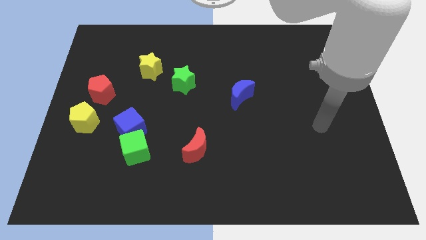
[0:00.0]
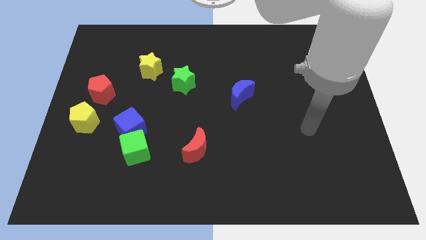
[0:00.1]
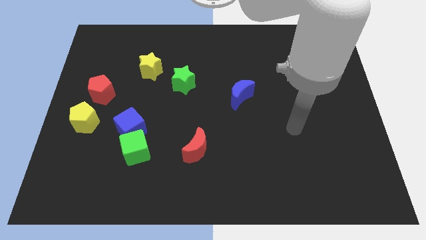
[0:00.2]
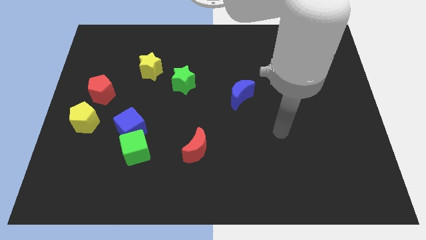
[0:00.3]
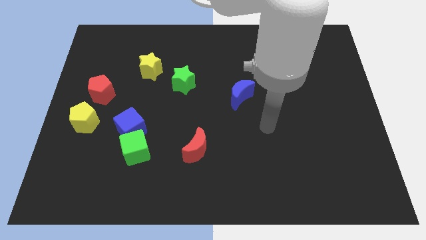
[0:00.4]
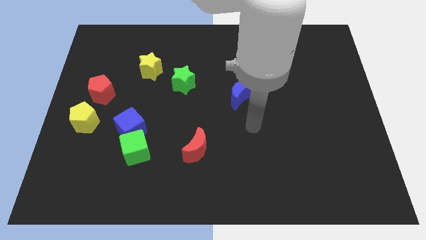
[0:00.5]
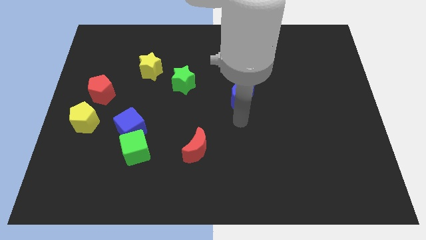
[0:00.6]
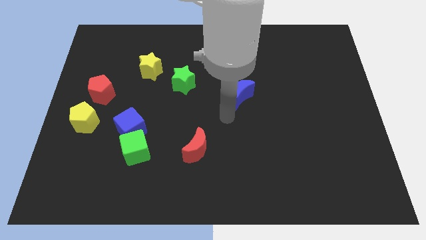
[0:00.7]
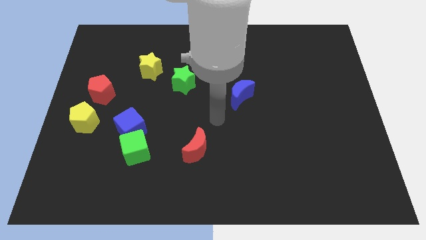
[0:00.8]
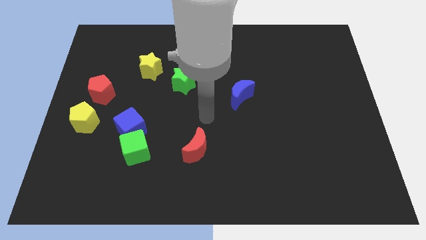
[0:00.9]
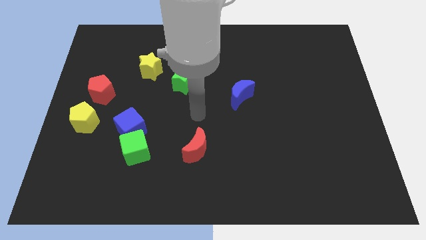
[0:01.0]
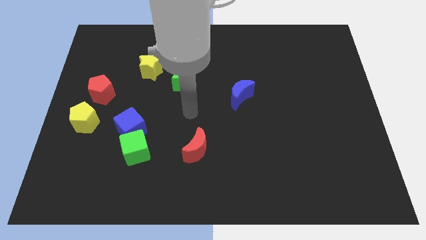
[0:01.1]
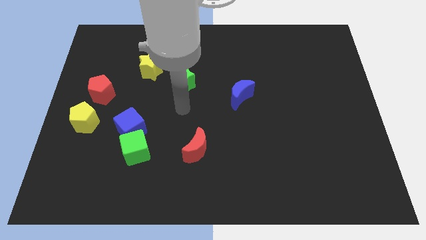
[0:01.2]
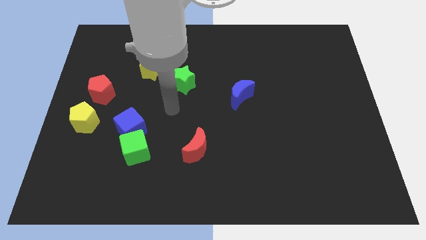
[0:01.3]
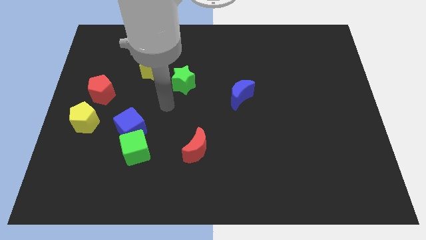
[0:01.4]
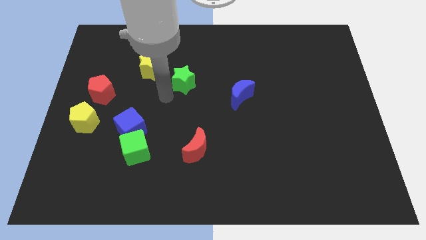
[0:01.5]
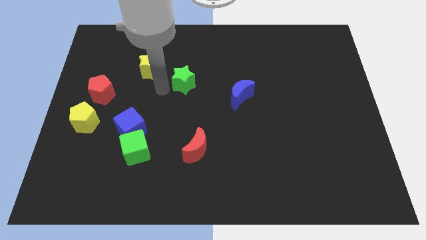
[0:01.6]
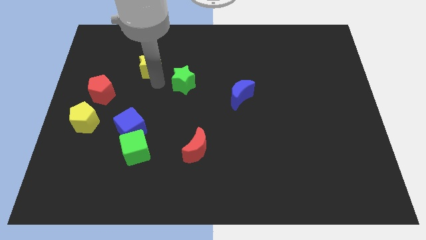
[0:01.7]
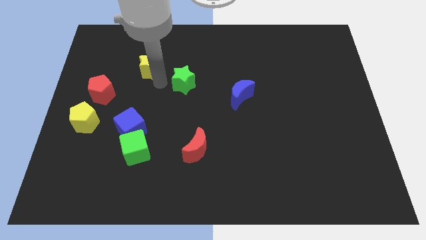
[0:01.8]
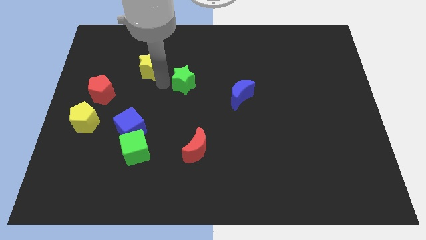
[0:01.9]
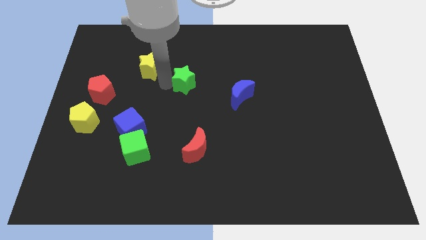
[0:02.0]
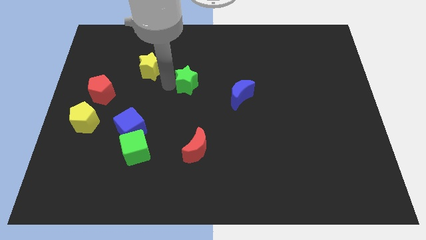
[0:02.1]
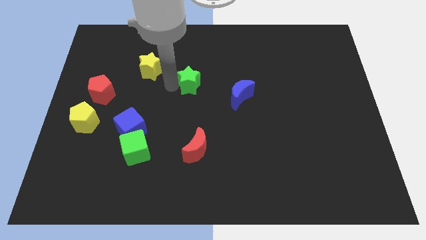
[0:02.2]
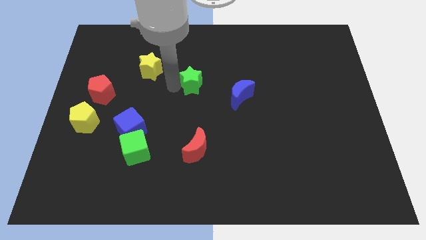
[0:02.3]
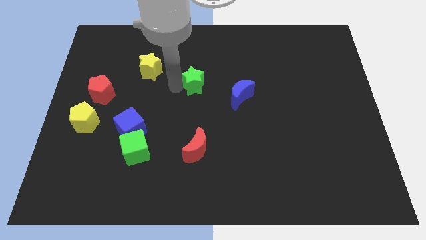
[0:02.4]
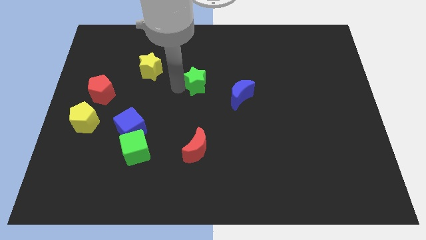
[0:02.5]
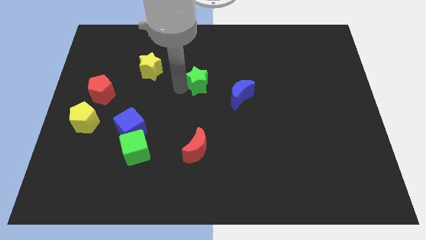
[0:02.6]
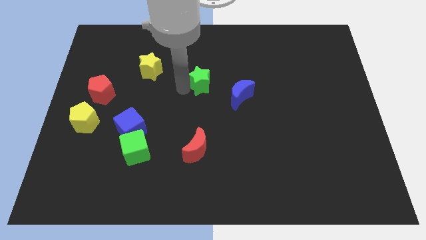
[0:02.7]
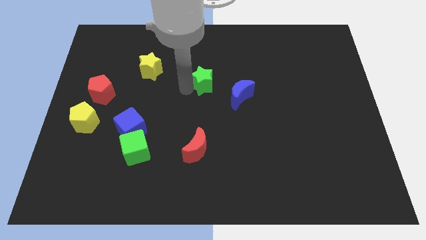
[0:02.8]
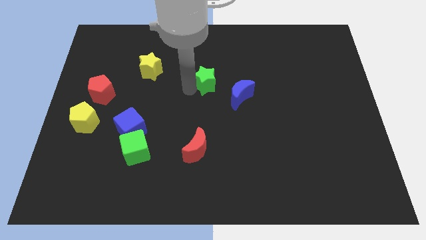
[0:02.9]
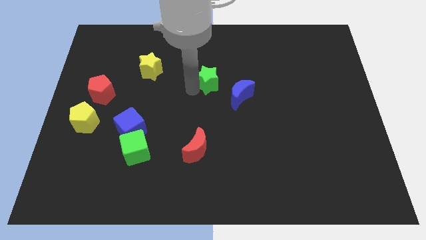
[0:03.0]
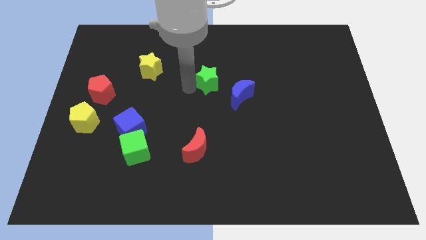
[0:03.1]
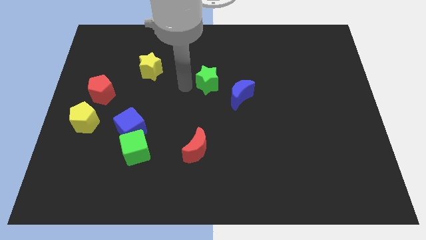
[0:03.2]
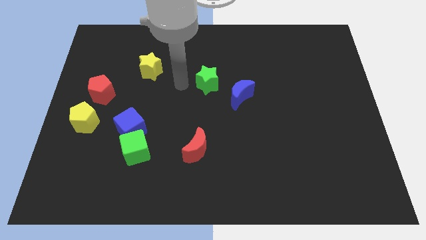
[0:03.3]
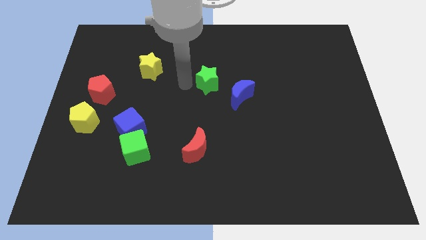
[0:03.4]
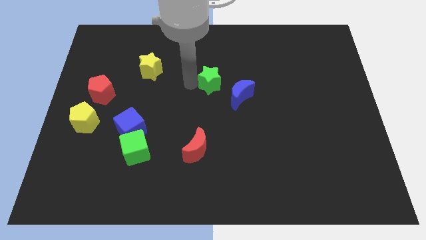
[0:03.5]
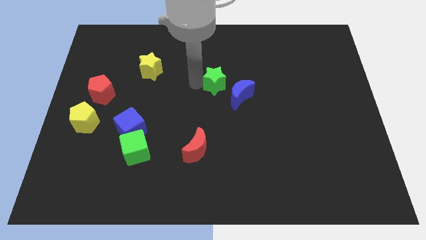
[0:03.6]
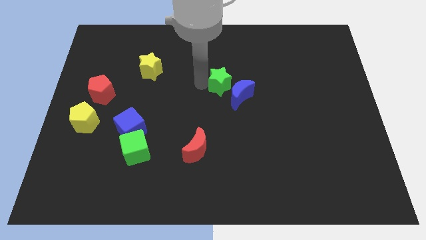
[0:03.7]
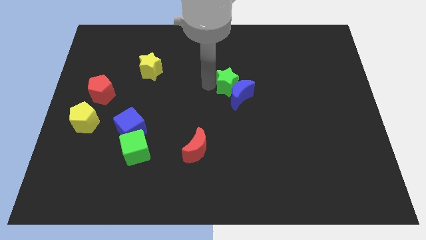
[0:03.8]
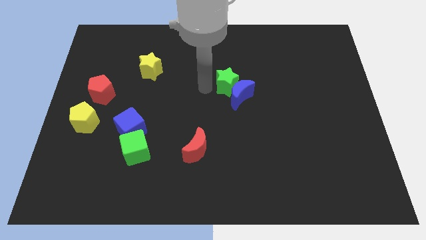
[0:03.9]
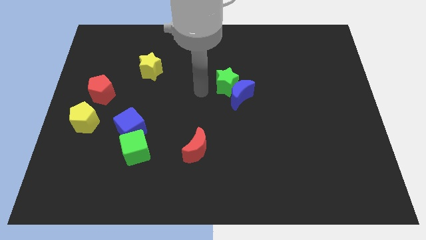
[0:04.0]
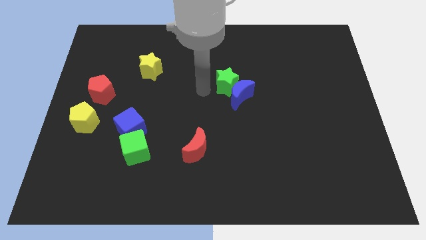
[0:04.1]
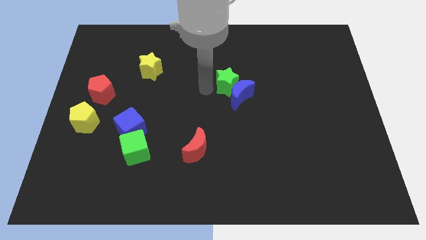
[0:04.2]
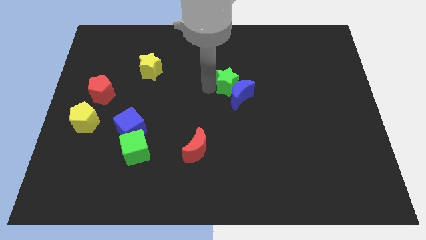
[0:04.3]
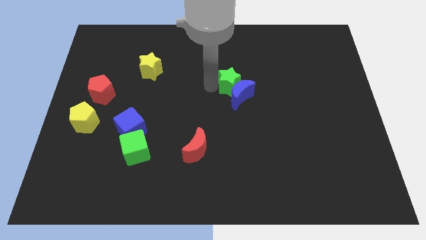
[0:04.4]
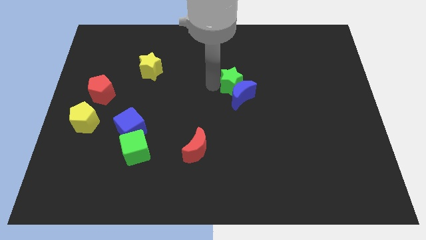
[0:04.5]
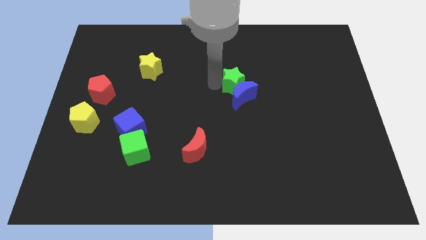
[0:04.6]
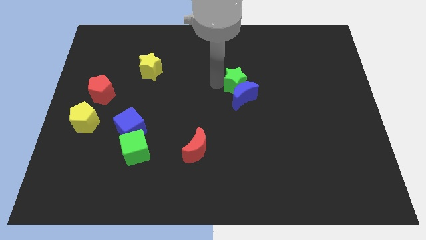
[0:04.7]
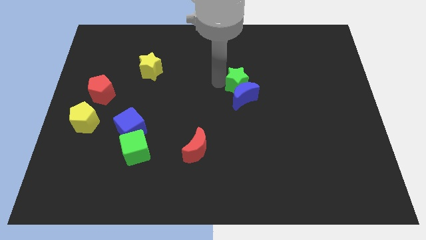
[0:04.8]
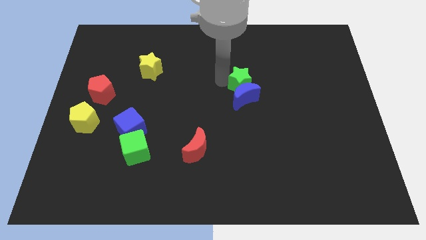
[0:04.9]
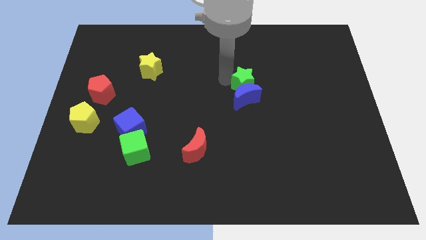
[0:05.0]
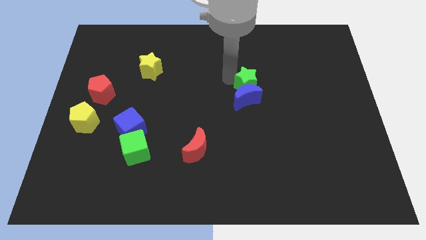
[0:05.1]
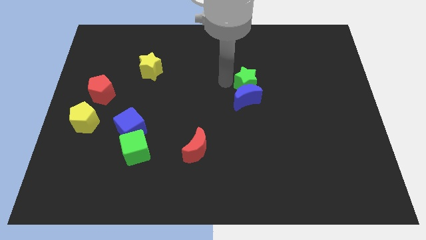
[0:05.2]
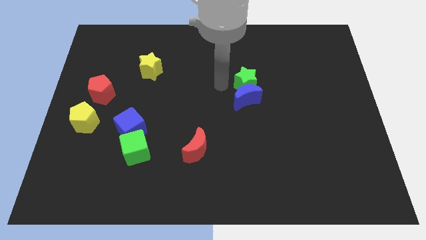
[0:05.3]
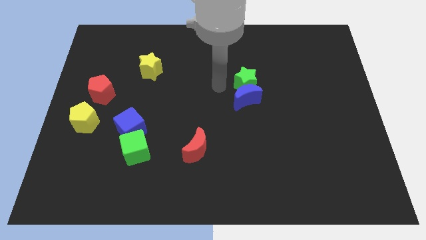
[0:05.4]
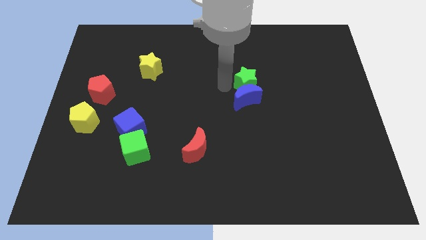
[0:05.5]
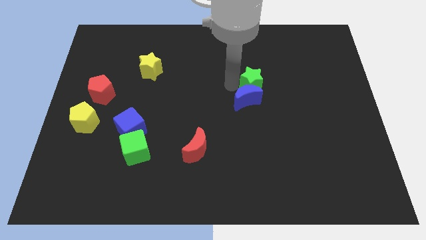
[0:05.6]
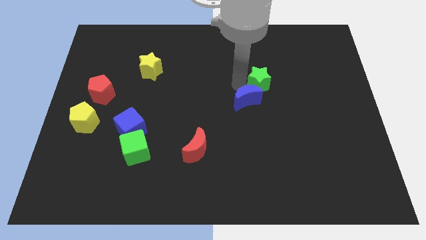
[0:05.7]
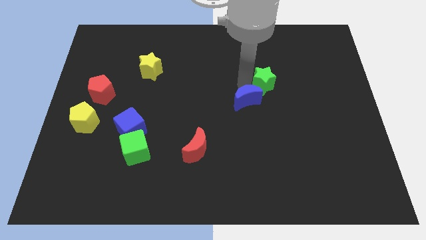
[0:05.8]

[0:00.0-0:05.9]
move the green star right

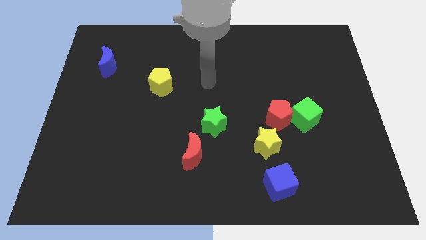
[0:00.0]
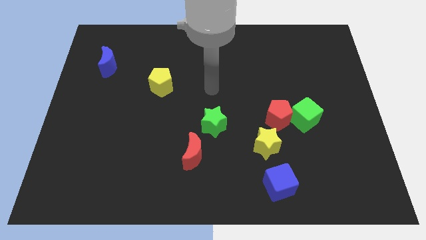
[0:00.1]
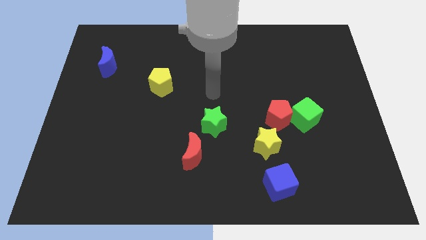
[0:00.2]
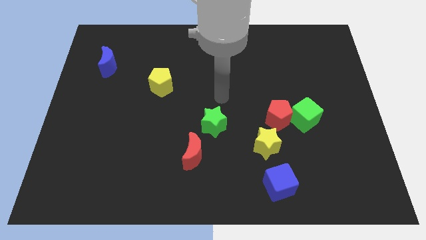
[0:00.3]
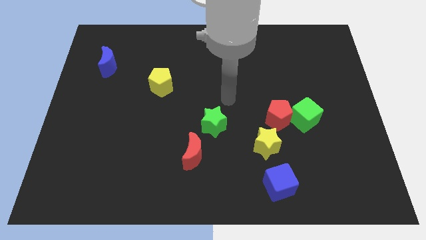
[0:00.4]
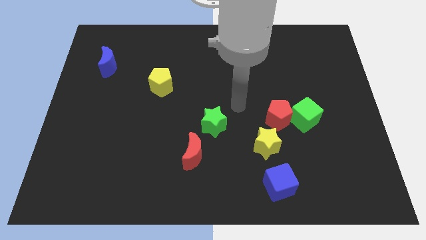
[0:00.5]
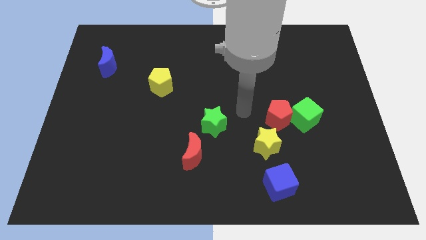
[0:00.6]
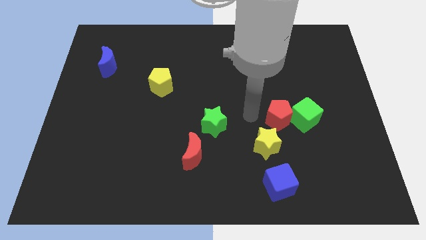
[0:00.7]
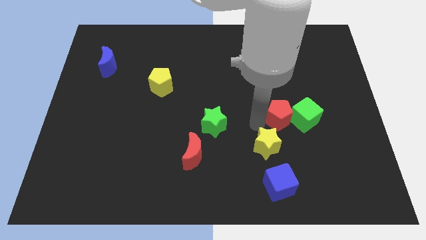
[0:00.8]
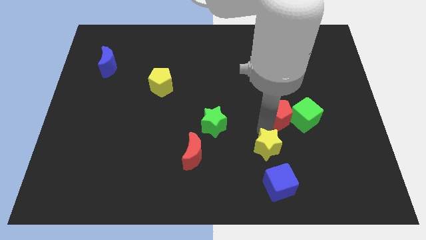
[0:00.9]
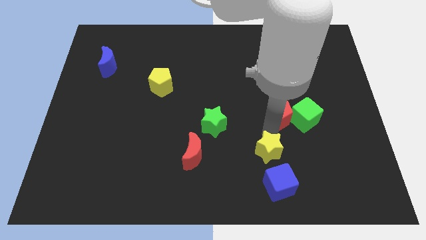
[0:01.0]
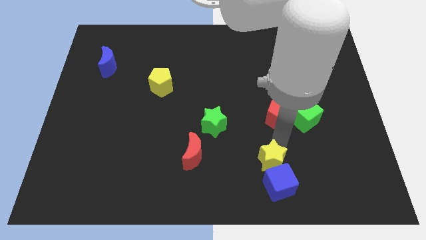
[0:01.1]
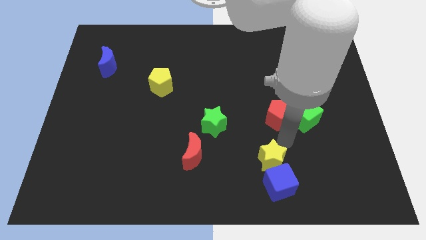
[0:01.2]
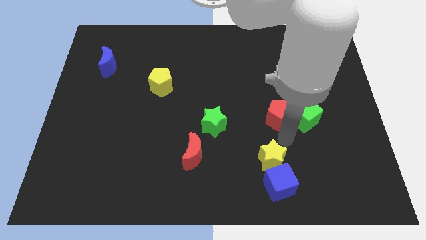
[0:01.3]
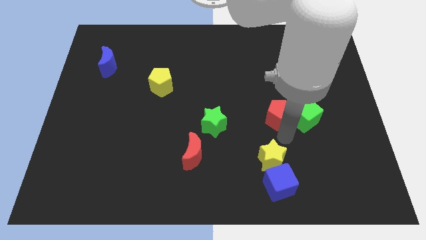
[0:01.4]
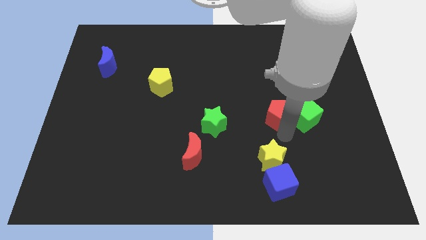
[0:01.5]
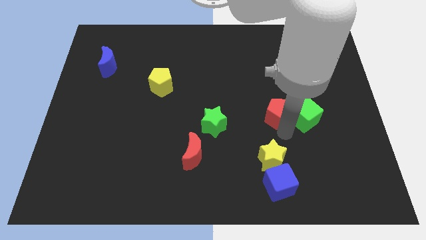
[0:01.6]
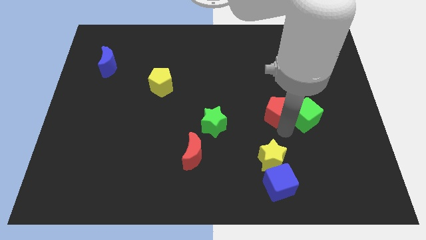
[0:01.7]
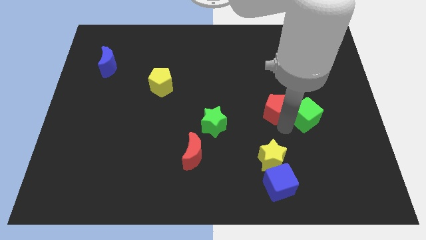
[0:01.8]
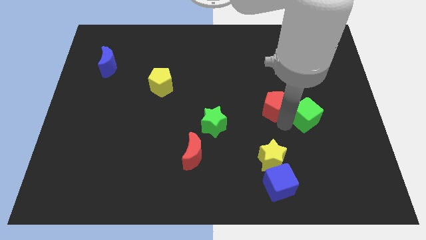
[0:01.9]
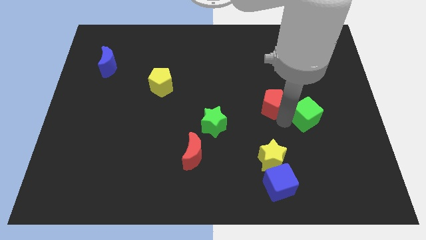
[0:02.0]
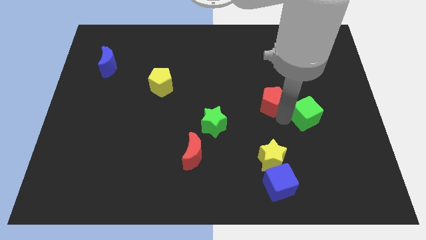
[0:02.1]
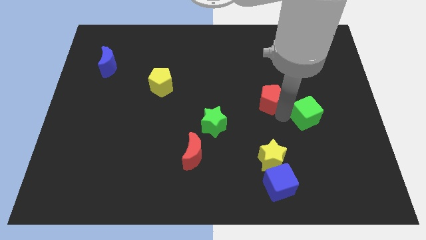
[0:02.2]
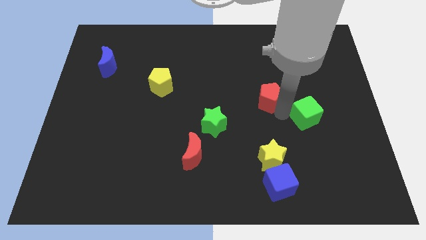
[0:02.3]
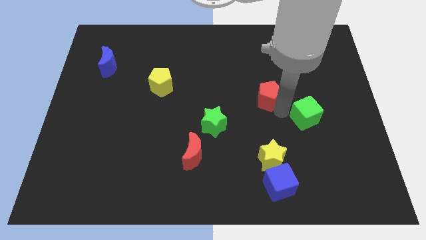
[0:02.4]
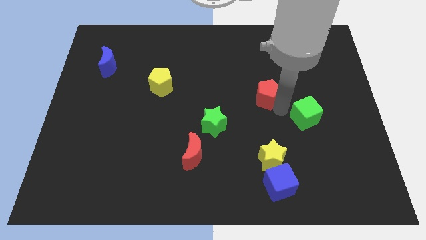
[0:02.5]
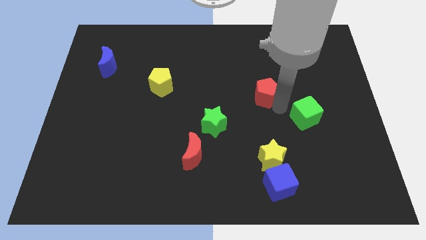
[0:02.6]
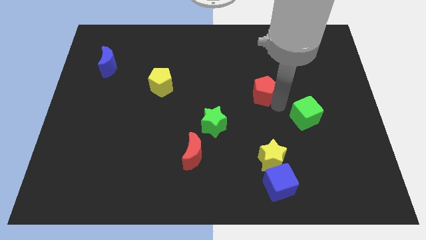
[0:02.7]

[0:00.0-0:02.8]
move the red pentagon upwards a bit
